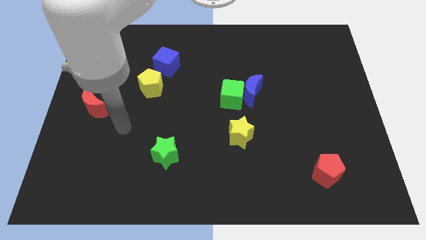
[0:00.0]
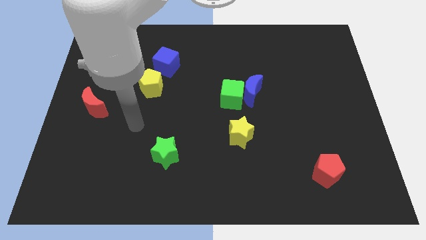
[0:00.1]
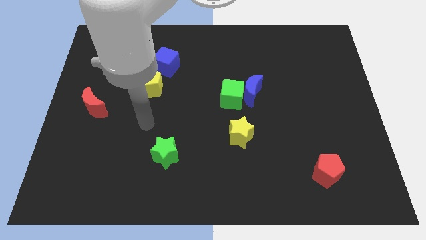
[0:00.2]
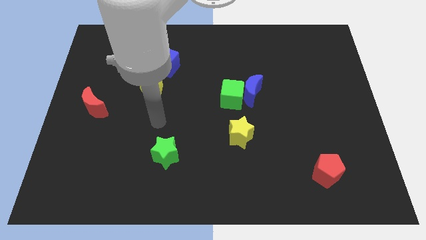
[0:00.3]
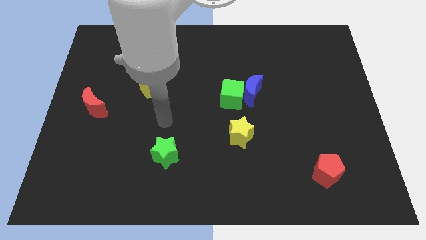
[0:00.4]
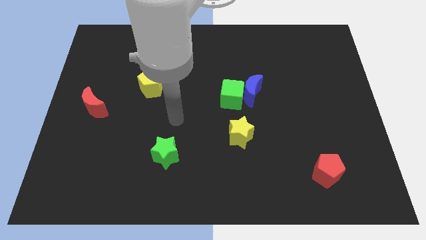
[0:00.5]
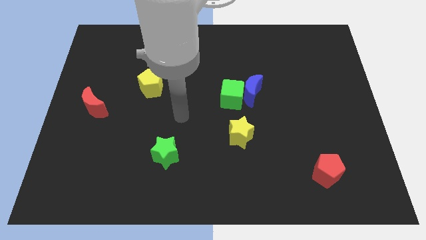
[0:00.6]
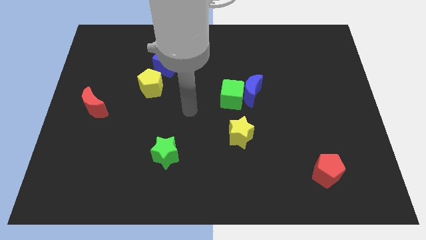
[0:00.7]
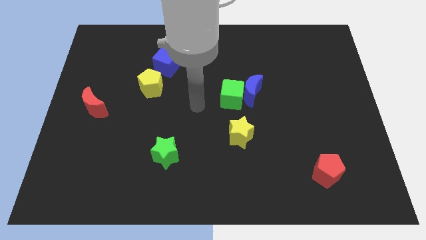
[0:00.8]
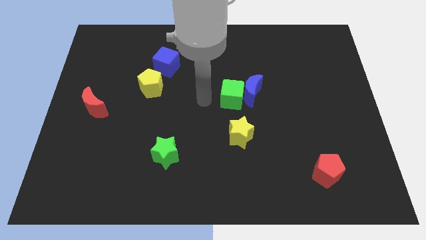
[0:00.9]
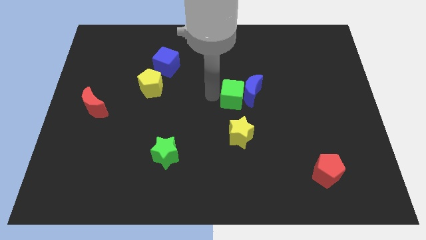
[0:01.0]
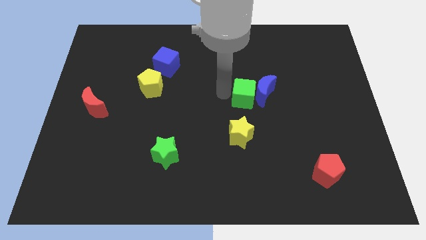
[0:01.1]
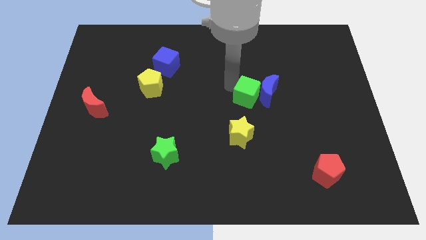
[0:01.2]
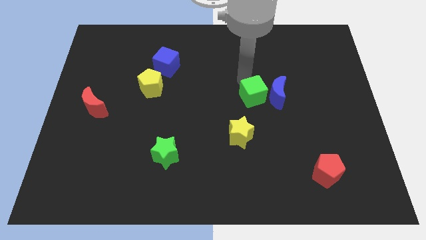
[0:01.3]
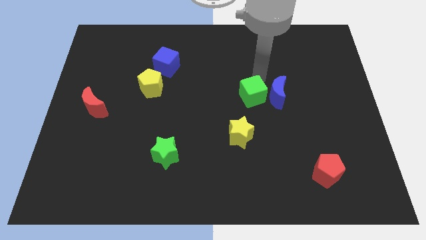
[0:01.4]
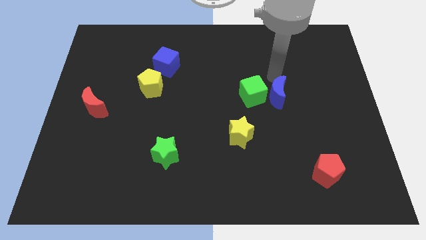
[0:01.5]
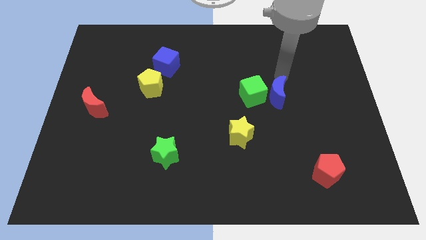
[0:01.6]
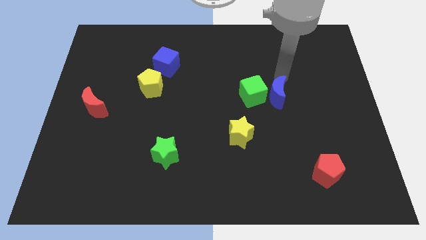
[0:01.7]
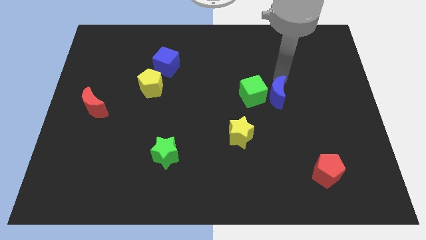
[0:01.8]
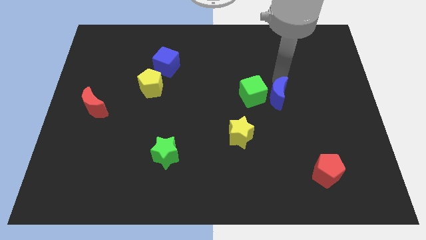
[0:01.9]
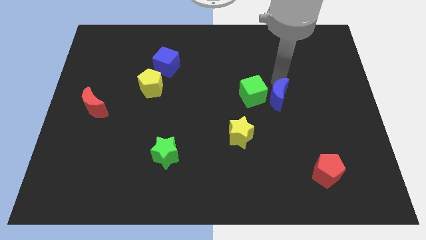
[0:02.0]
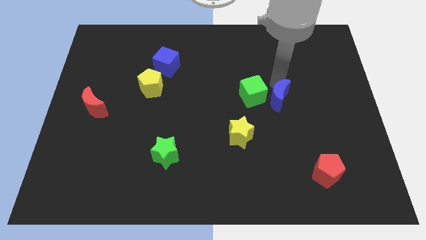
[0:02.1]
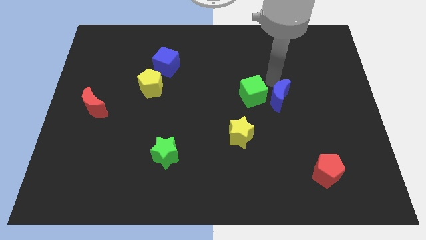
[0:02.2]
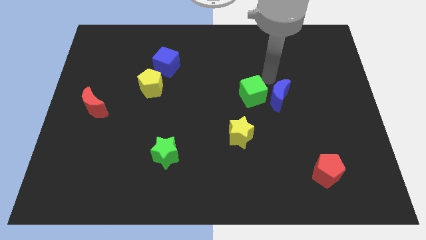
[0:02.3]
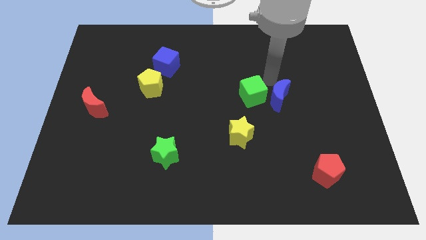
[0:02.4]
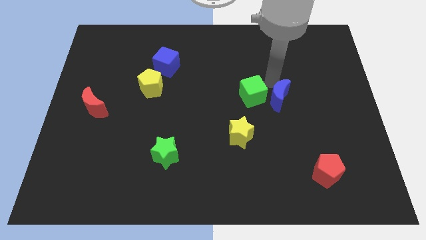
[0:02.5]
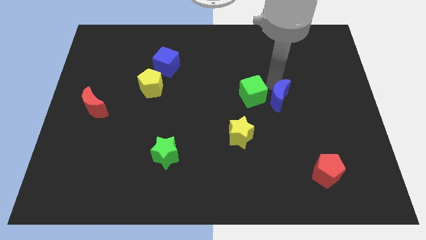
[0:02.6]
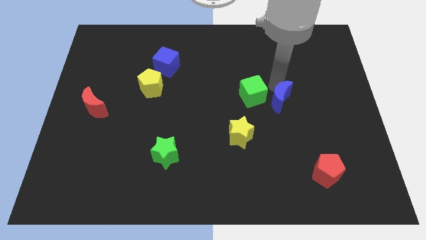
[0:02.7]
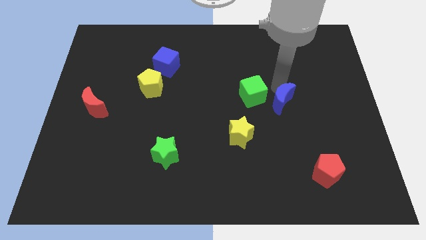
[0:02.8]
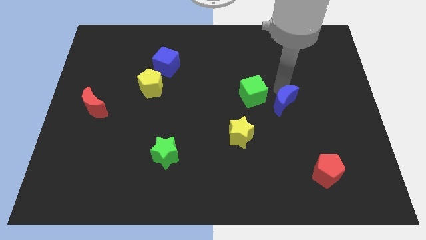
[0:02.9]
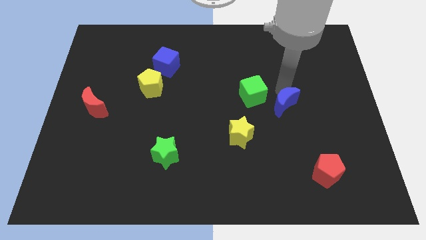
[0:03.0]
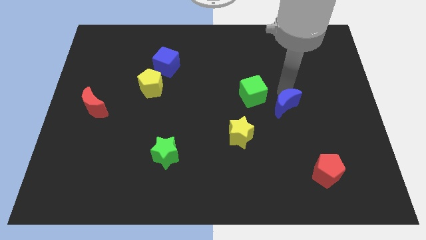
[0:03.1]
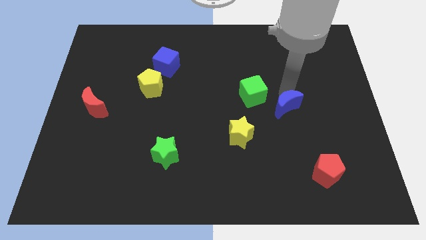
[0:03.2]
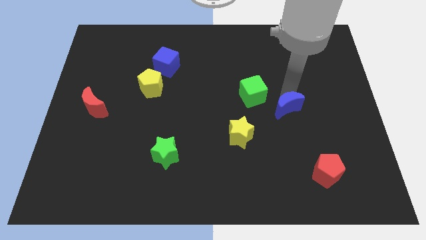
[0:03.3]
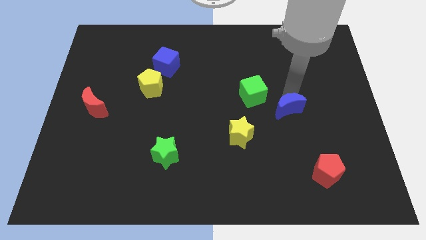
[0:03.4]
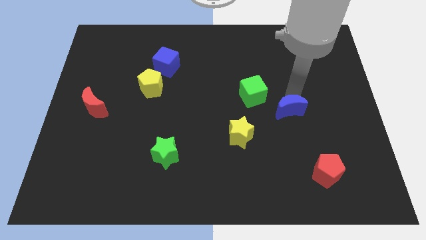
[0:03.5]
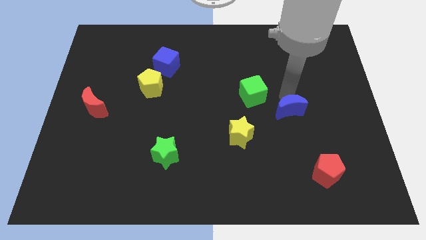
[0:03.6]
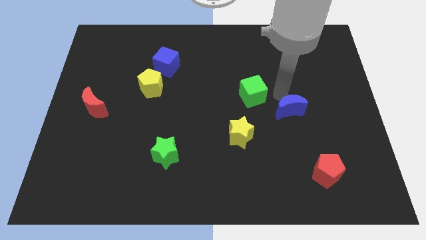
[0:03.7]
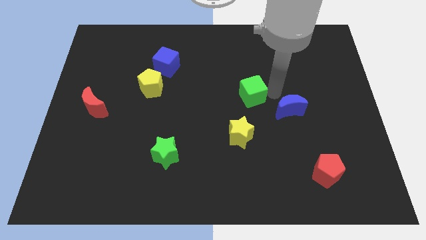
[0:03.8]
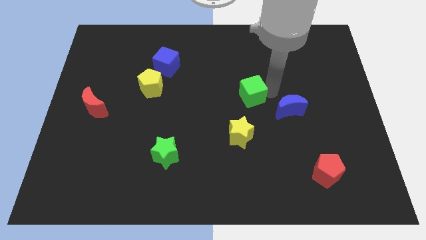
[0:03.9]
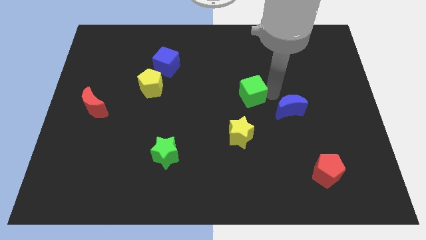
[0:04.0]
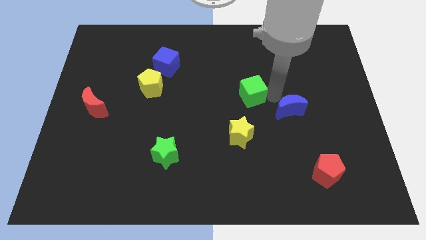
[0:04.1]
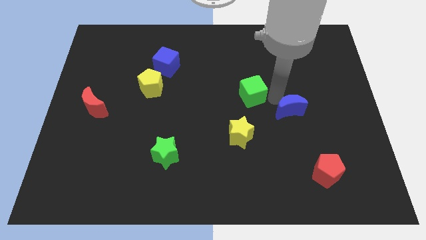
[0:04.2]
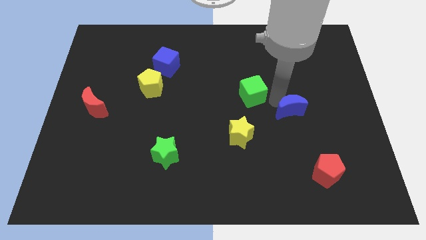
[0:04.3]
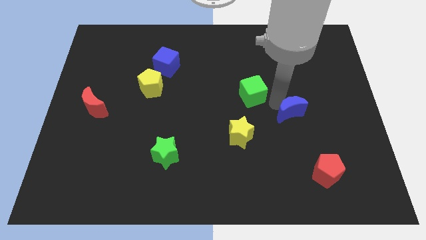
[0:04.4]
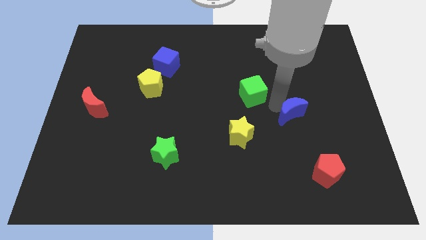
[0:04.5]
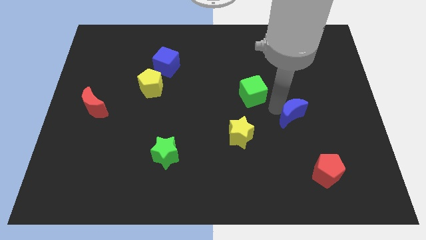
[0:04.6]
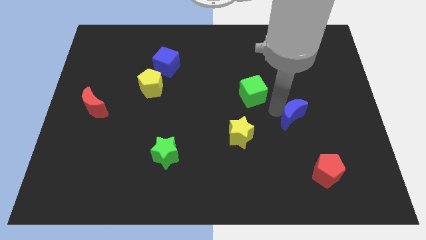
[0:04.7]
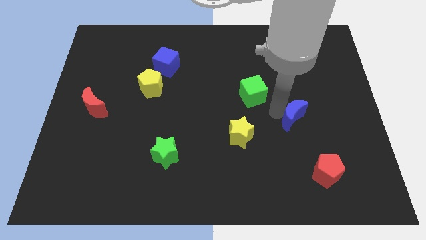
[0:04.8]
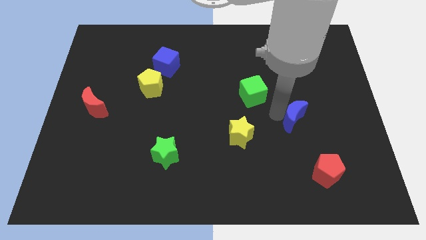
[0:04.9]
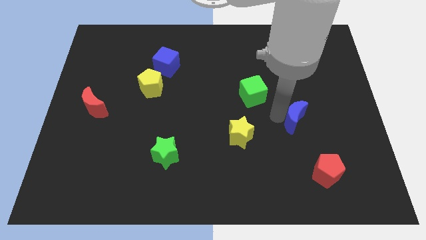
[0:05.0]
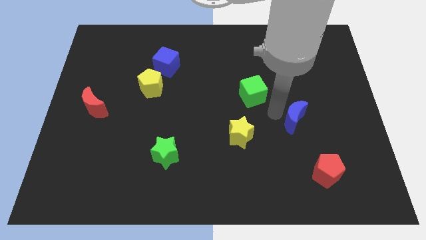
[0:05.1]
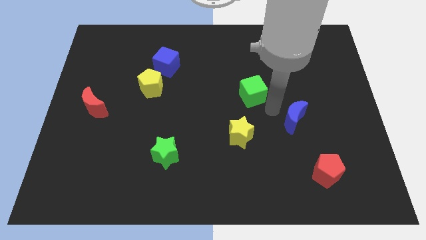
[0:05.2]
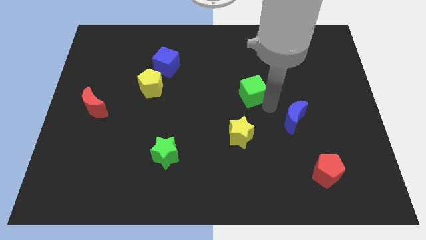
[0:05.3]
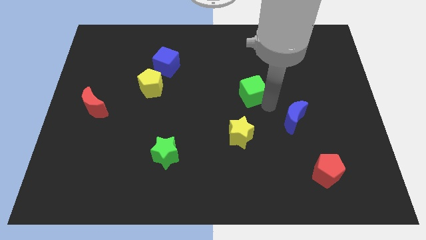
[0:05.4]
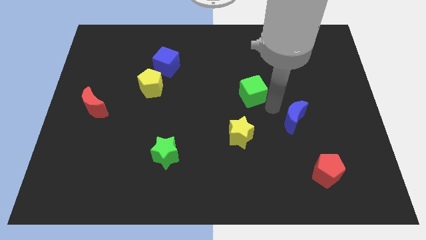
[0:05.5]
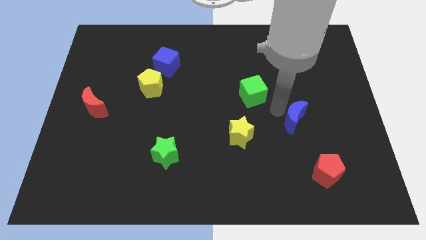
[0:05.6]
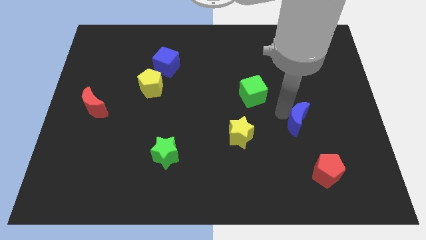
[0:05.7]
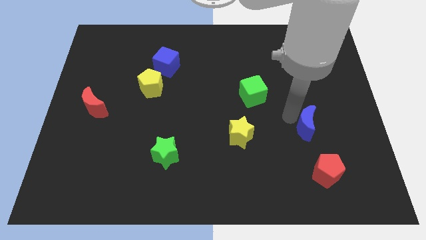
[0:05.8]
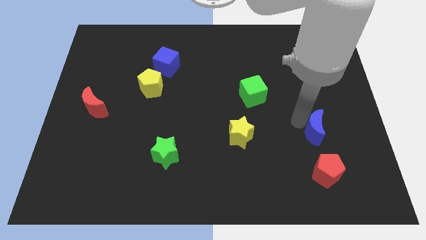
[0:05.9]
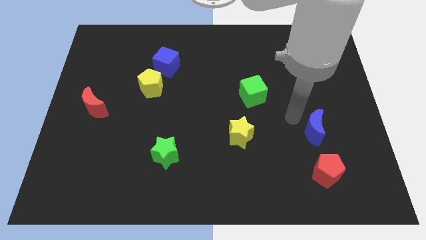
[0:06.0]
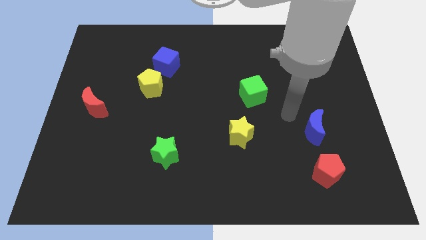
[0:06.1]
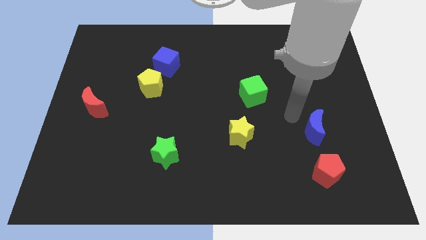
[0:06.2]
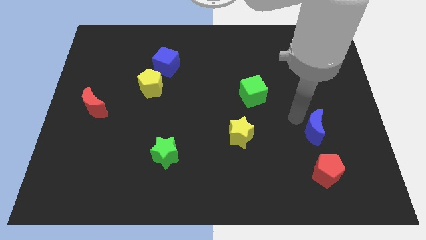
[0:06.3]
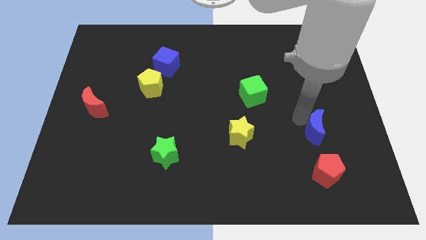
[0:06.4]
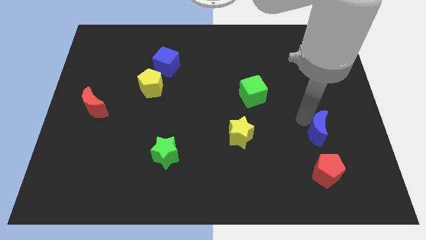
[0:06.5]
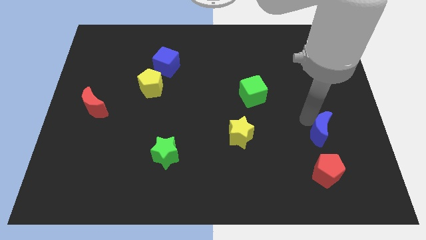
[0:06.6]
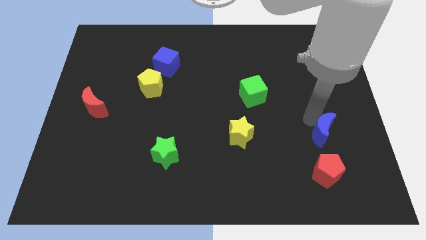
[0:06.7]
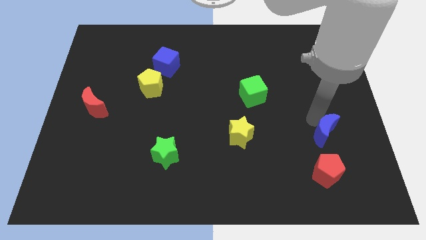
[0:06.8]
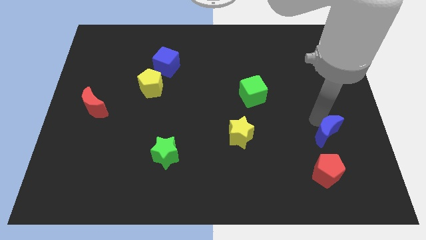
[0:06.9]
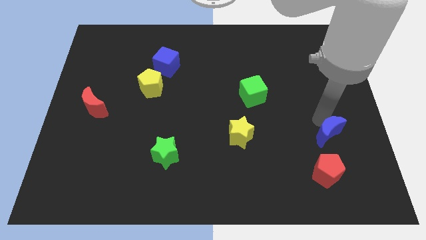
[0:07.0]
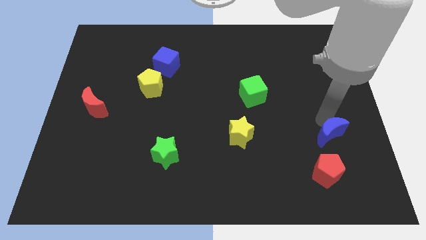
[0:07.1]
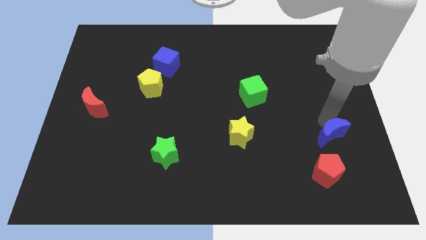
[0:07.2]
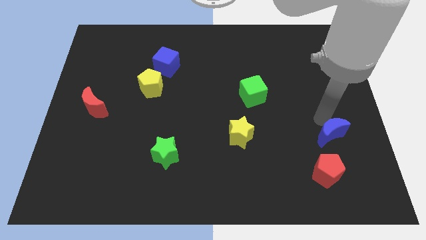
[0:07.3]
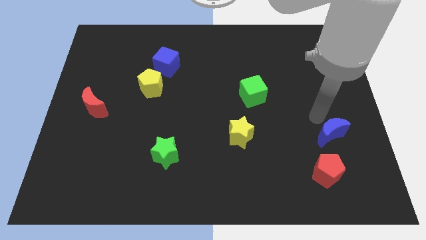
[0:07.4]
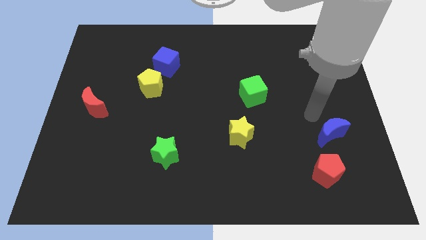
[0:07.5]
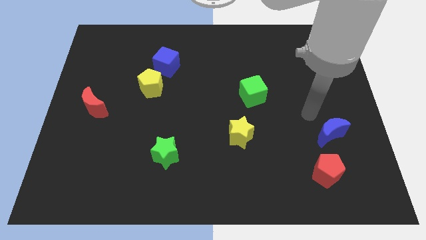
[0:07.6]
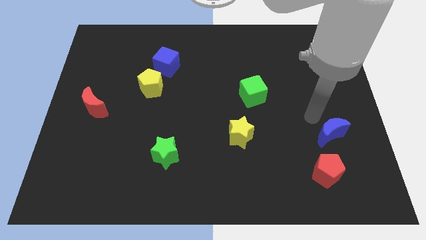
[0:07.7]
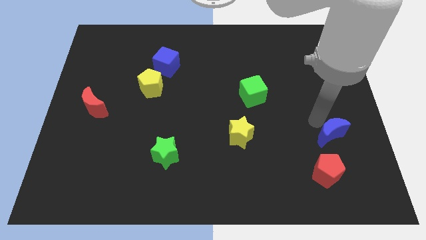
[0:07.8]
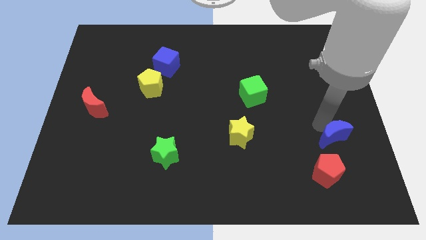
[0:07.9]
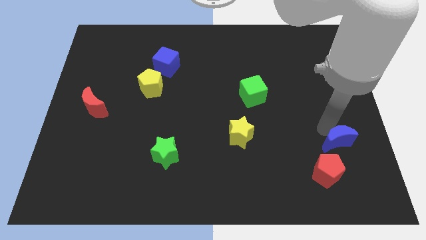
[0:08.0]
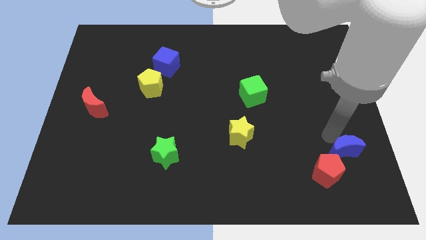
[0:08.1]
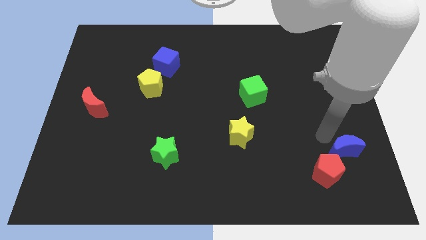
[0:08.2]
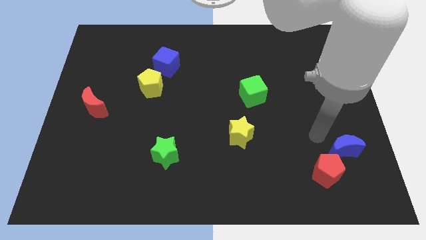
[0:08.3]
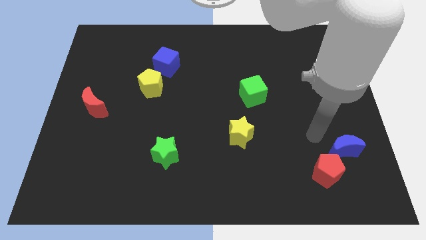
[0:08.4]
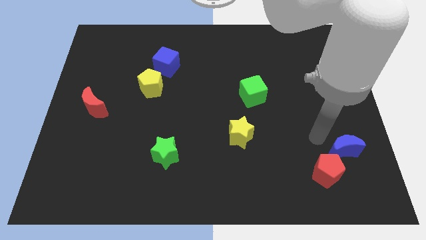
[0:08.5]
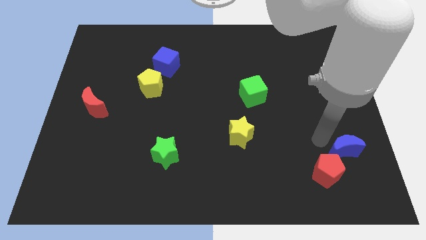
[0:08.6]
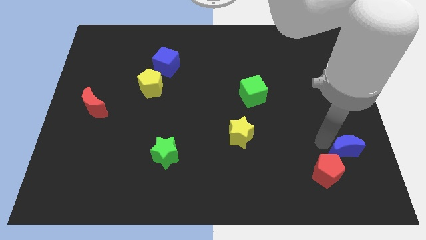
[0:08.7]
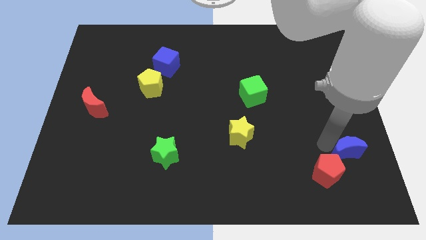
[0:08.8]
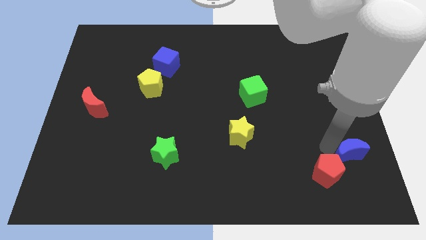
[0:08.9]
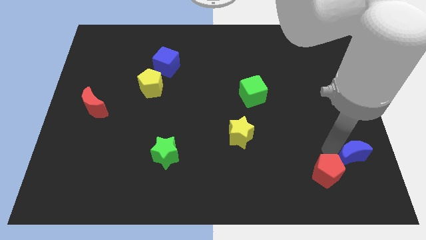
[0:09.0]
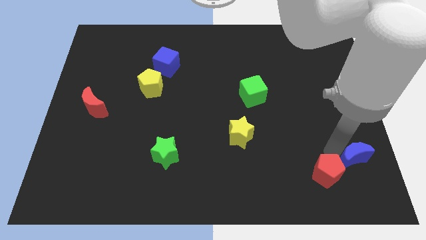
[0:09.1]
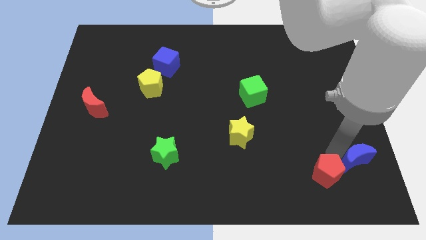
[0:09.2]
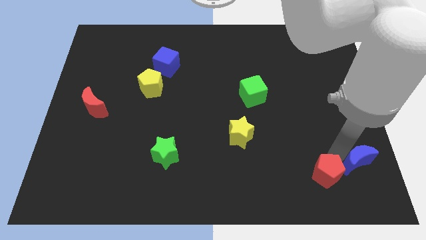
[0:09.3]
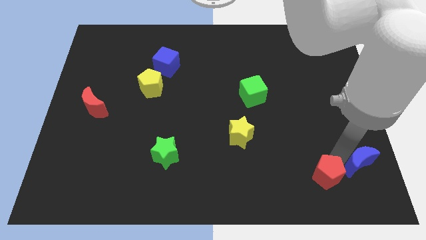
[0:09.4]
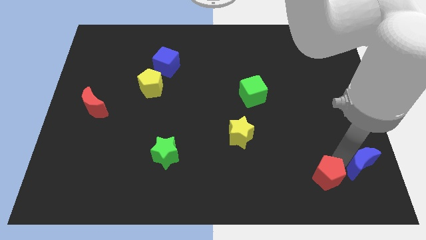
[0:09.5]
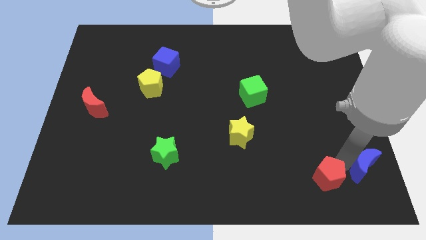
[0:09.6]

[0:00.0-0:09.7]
slide the blue moon to the bottom right
